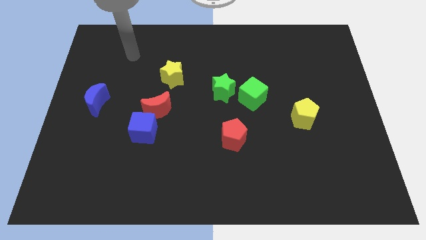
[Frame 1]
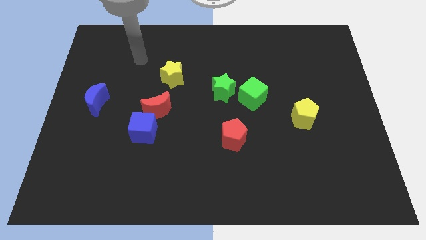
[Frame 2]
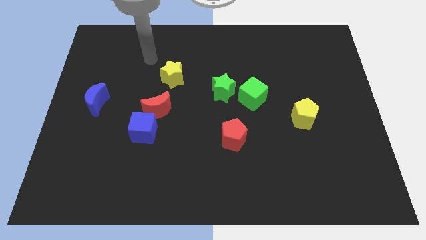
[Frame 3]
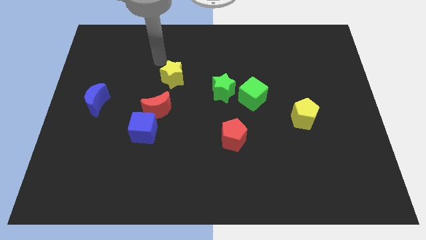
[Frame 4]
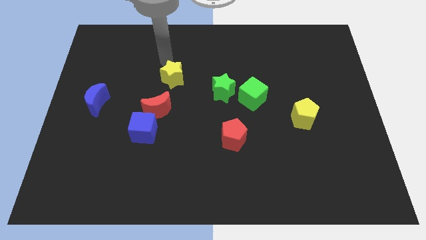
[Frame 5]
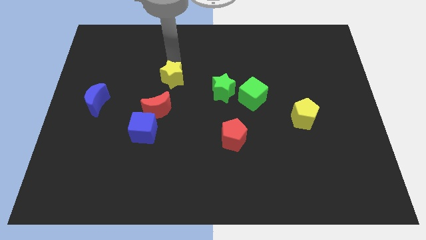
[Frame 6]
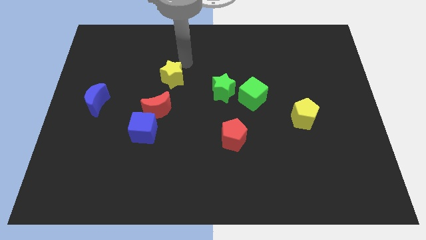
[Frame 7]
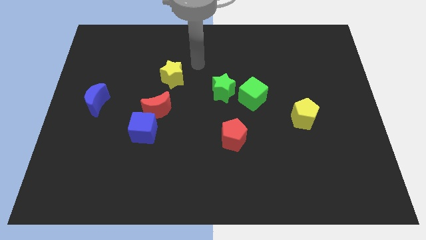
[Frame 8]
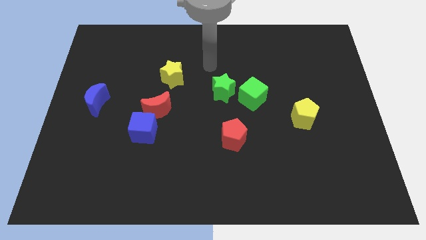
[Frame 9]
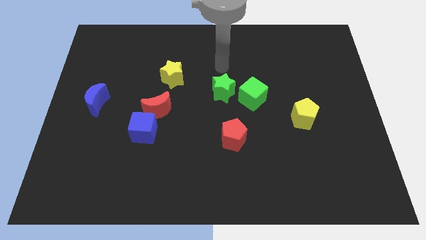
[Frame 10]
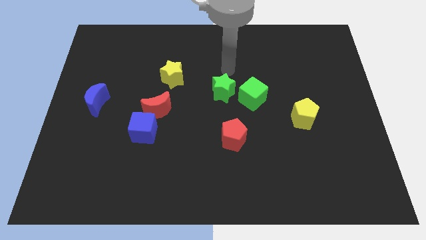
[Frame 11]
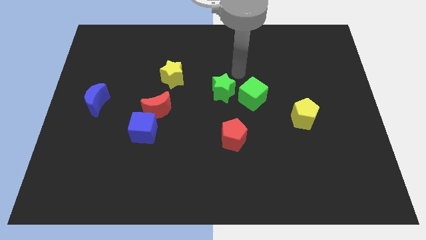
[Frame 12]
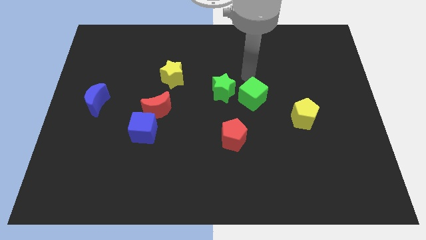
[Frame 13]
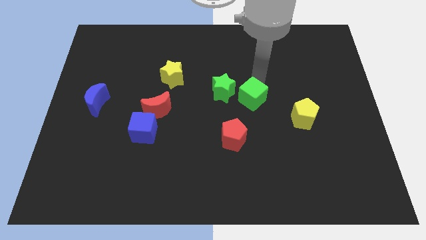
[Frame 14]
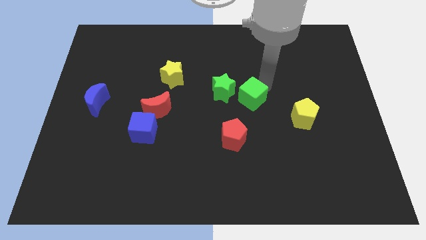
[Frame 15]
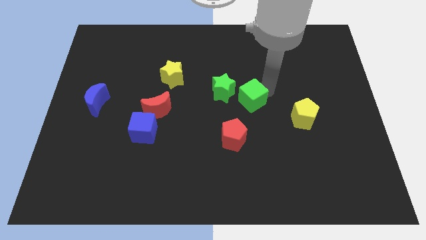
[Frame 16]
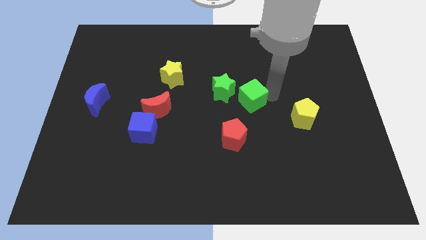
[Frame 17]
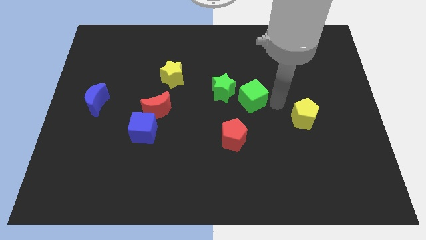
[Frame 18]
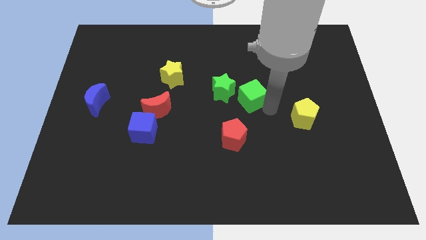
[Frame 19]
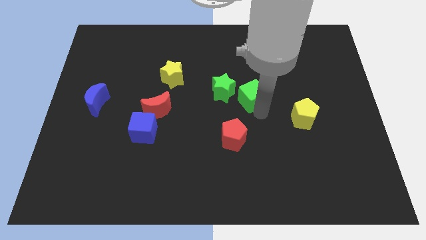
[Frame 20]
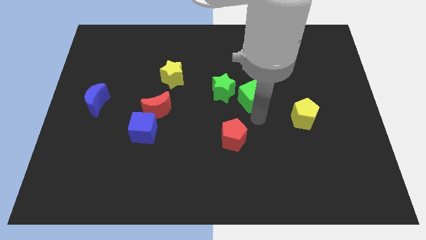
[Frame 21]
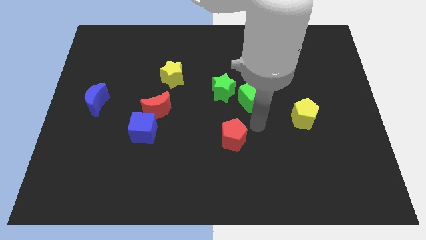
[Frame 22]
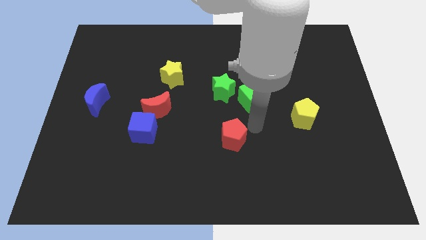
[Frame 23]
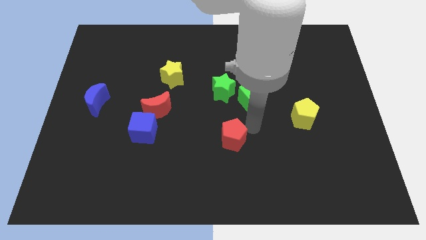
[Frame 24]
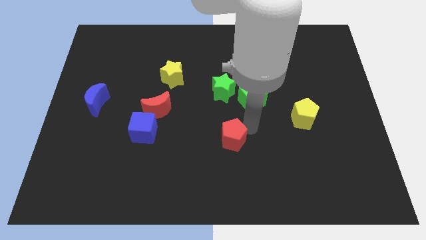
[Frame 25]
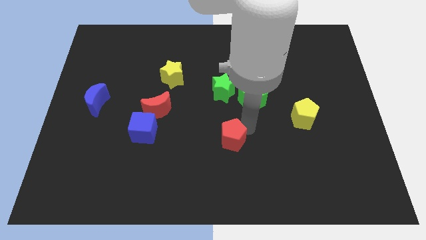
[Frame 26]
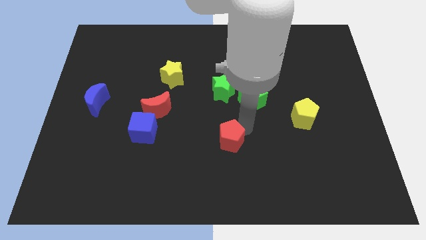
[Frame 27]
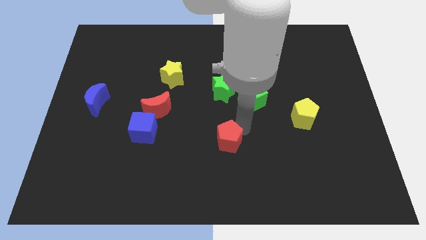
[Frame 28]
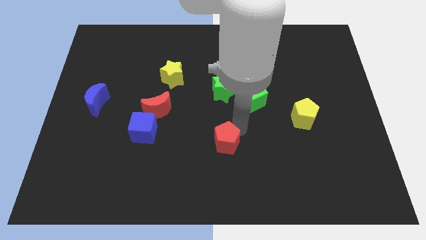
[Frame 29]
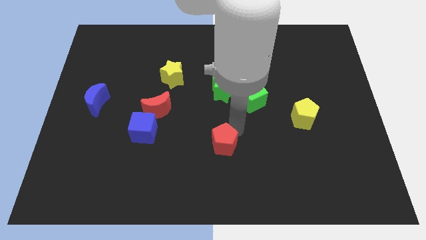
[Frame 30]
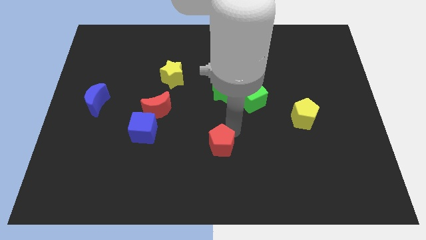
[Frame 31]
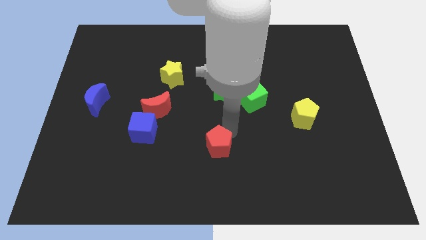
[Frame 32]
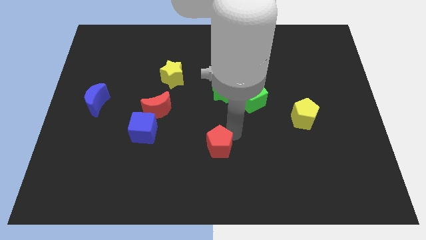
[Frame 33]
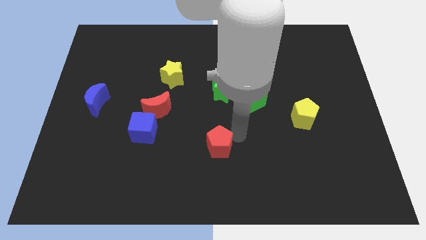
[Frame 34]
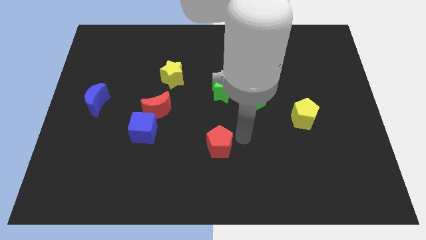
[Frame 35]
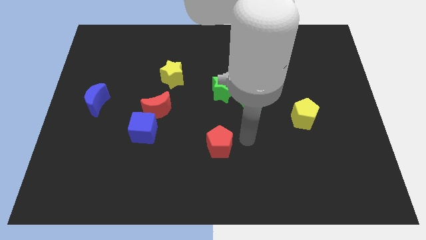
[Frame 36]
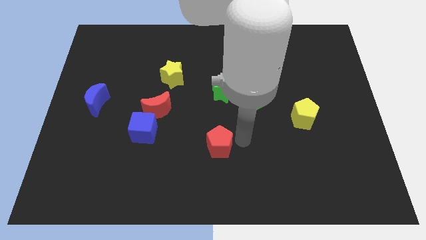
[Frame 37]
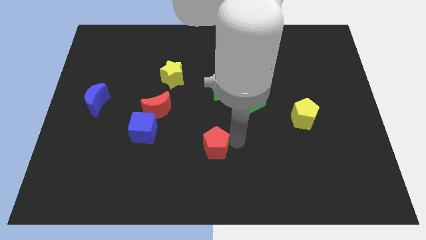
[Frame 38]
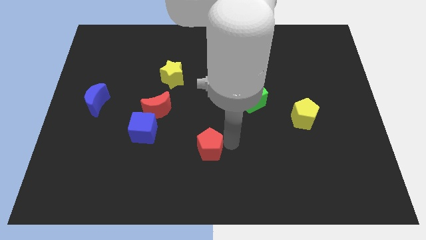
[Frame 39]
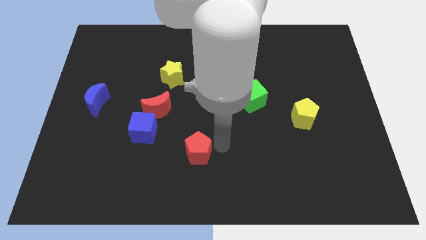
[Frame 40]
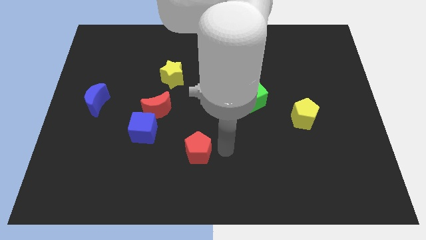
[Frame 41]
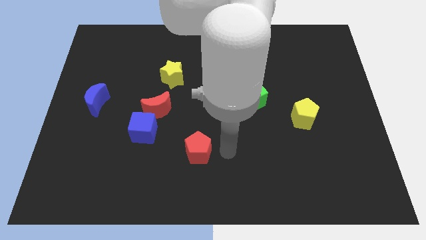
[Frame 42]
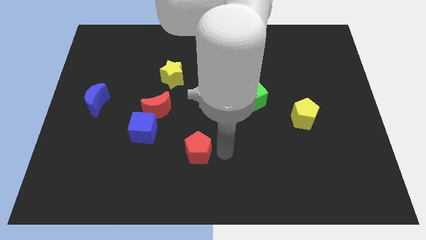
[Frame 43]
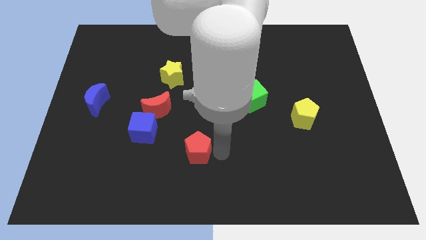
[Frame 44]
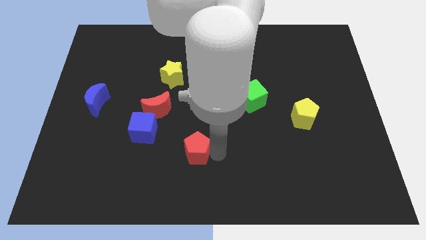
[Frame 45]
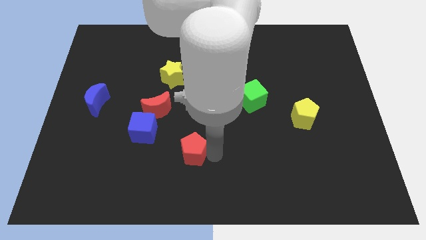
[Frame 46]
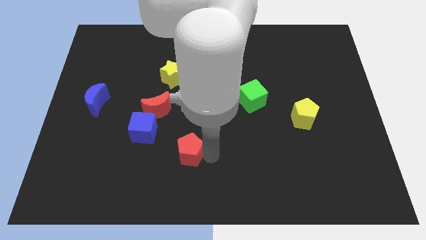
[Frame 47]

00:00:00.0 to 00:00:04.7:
slide the red pentagon diagonally down and to the right of the blue cube

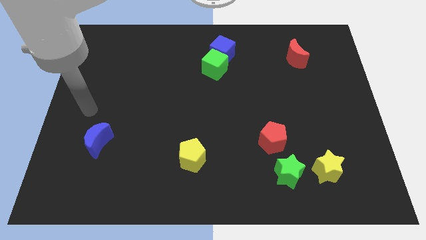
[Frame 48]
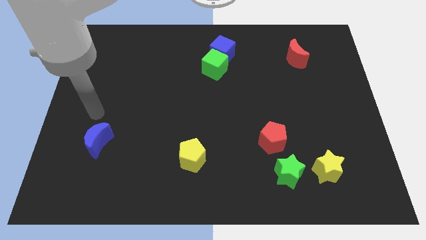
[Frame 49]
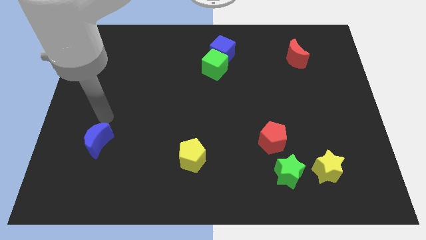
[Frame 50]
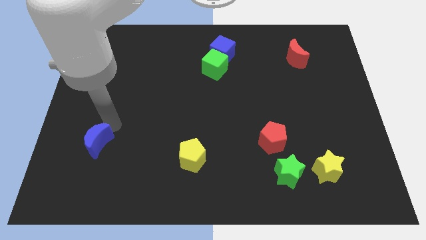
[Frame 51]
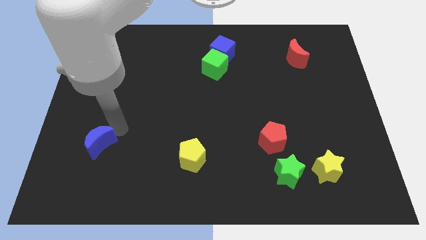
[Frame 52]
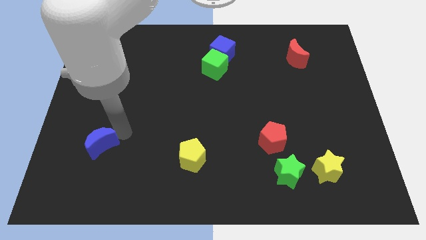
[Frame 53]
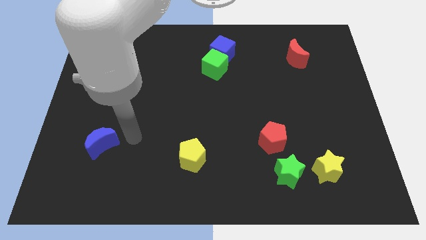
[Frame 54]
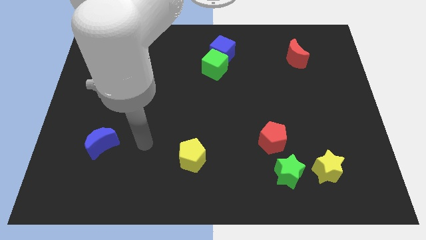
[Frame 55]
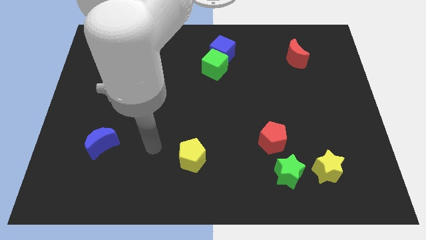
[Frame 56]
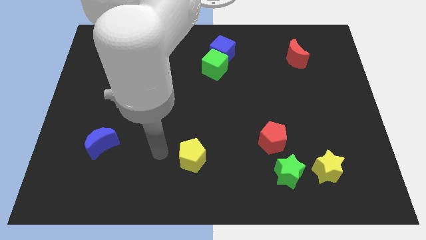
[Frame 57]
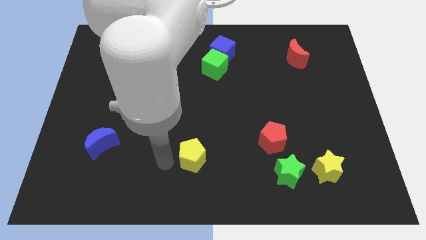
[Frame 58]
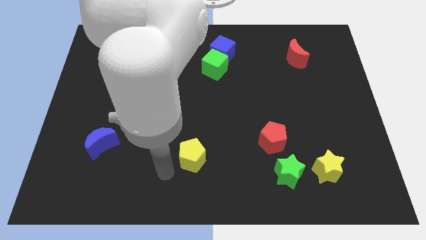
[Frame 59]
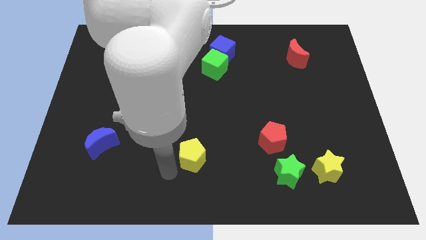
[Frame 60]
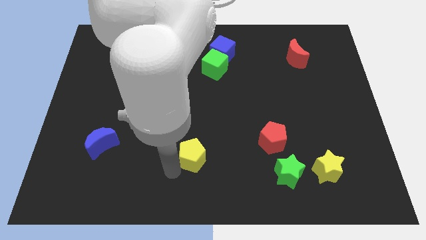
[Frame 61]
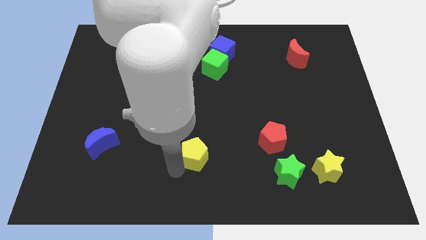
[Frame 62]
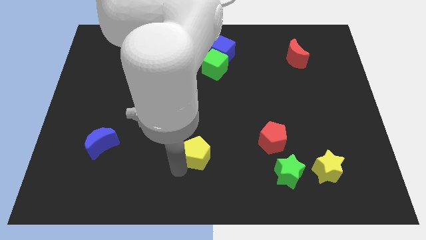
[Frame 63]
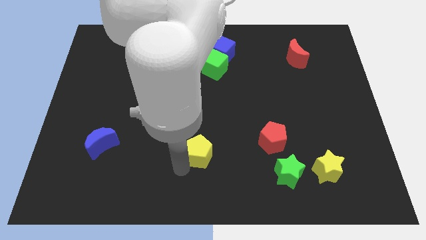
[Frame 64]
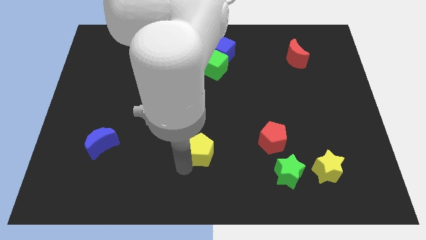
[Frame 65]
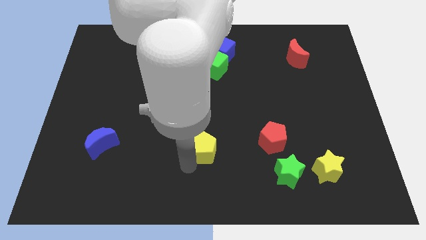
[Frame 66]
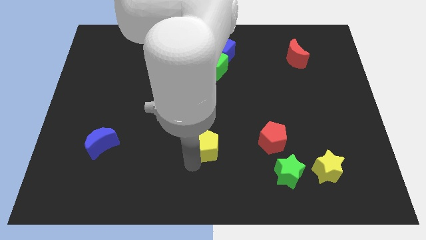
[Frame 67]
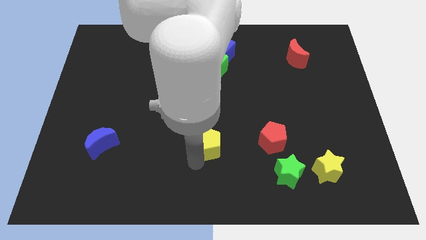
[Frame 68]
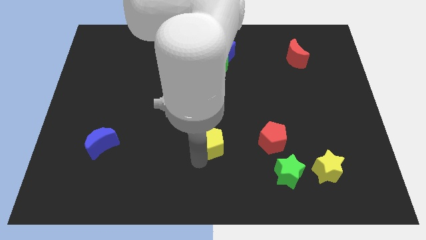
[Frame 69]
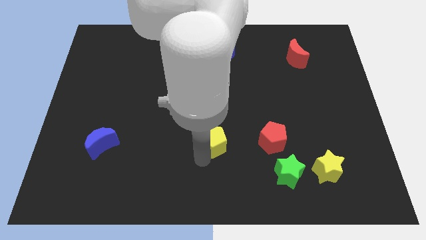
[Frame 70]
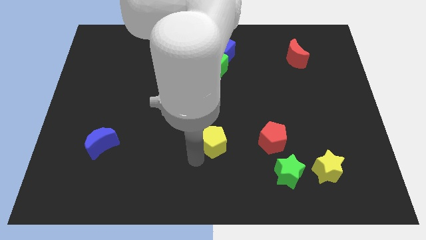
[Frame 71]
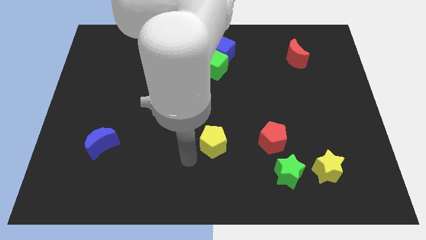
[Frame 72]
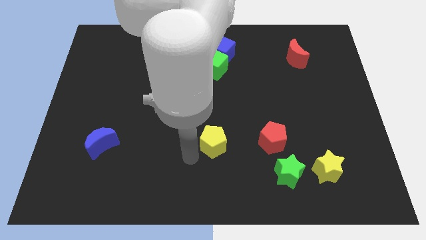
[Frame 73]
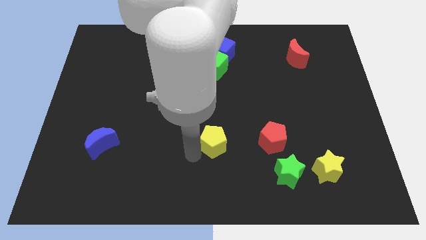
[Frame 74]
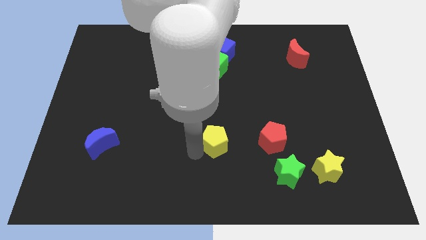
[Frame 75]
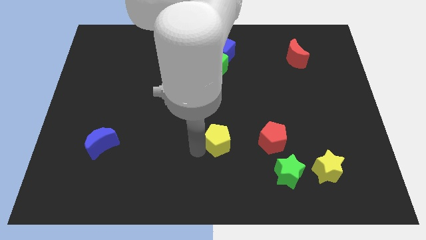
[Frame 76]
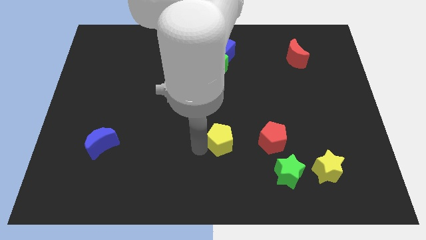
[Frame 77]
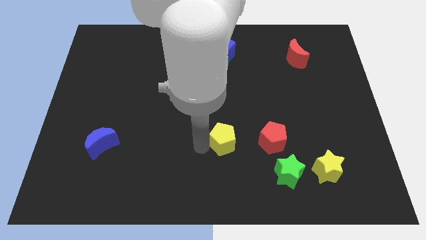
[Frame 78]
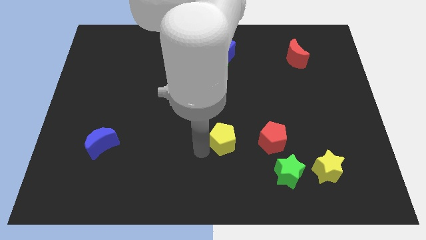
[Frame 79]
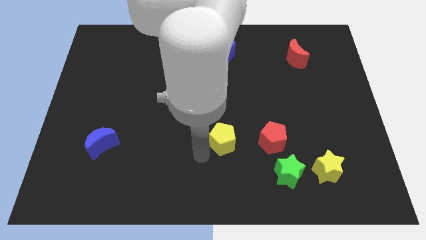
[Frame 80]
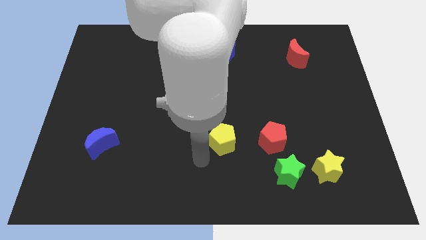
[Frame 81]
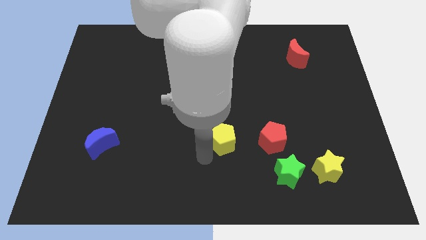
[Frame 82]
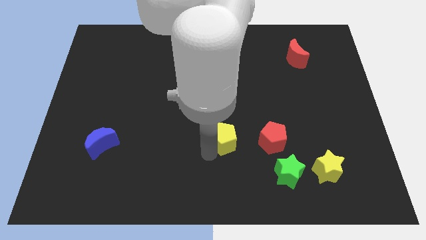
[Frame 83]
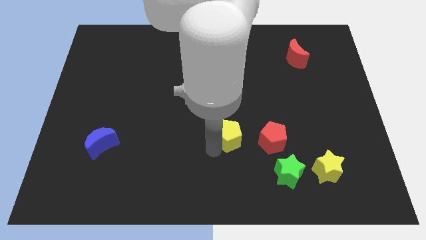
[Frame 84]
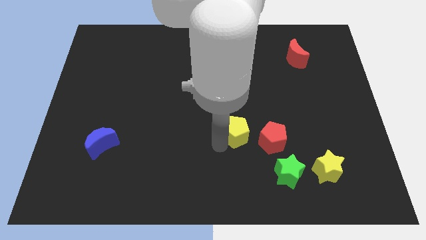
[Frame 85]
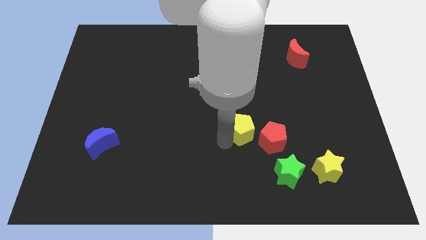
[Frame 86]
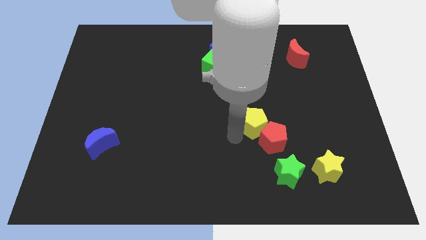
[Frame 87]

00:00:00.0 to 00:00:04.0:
push the yellow pentagon above the red pentagon
